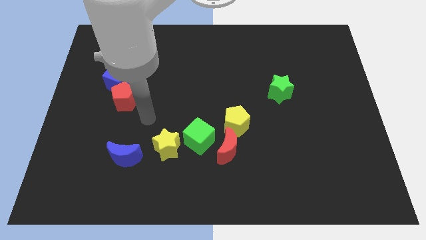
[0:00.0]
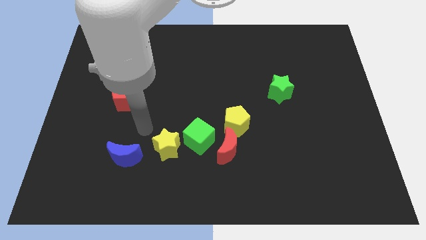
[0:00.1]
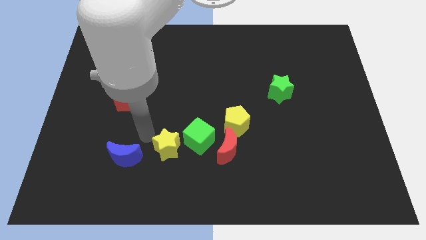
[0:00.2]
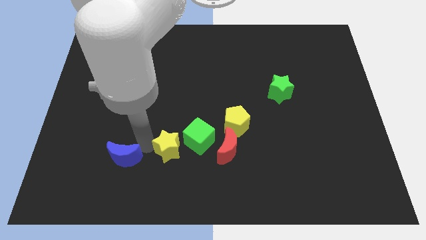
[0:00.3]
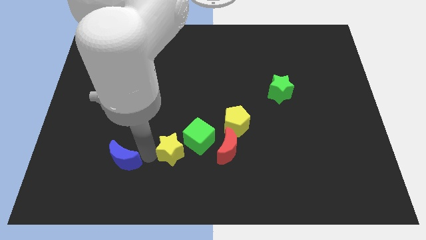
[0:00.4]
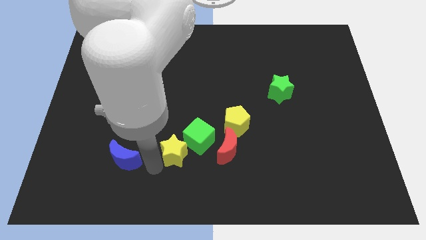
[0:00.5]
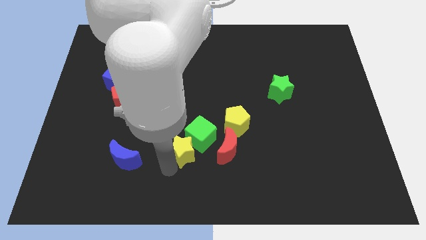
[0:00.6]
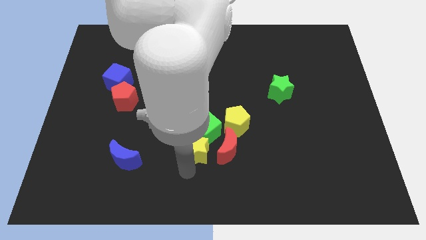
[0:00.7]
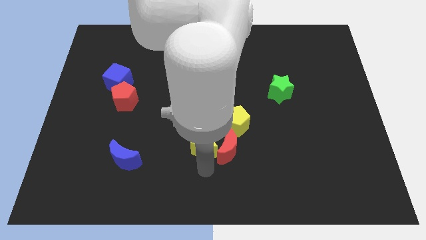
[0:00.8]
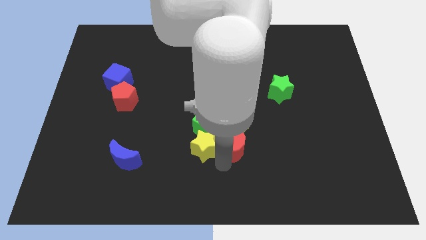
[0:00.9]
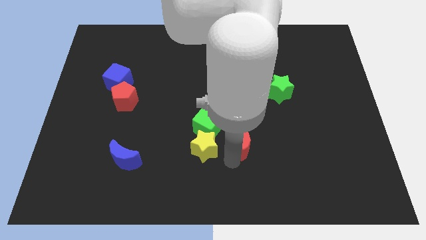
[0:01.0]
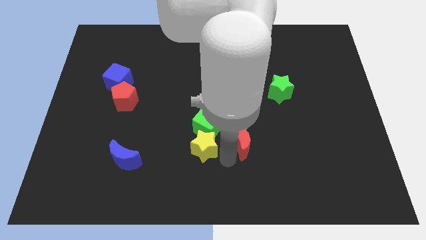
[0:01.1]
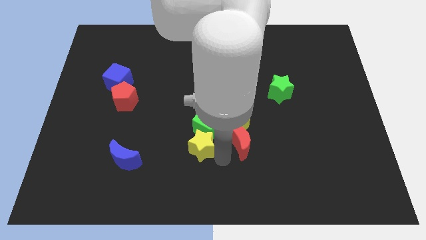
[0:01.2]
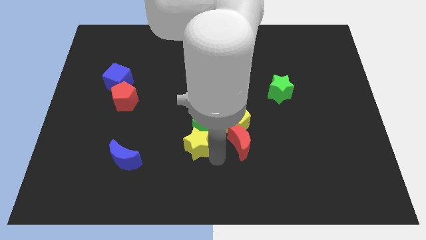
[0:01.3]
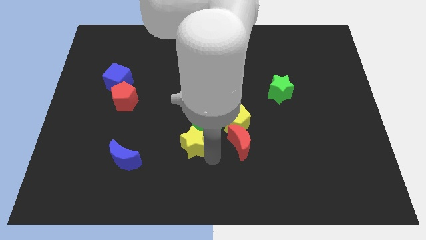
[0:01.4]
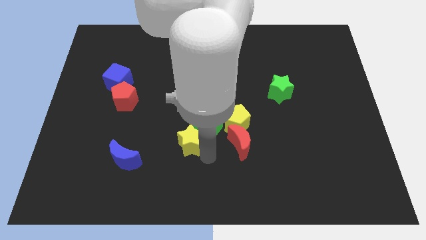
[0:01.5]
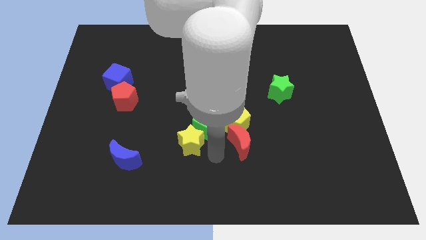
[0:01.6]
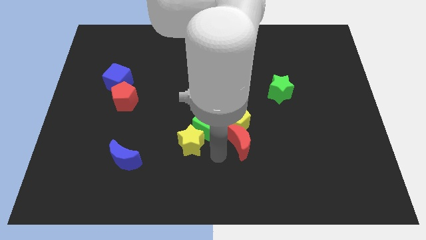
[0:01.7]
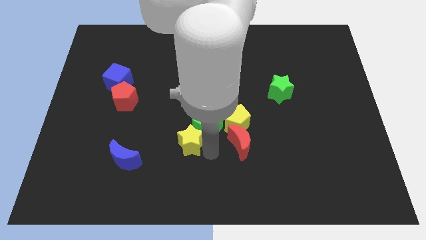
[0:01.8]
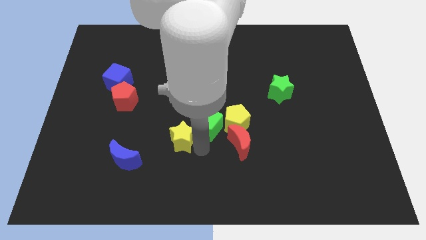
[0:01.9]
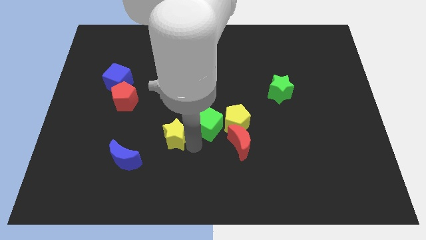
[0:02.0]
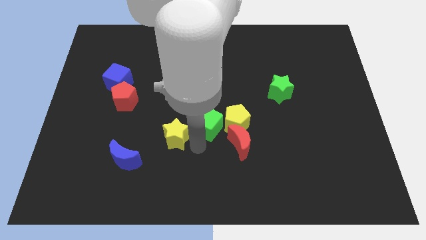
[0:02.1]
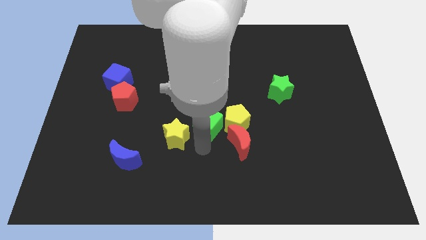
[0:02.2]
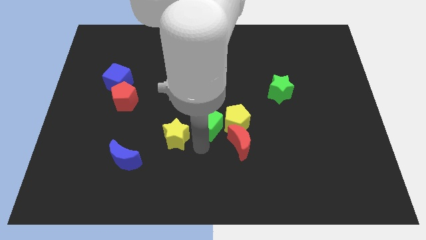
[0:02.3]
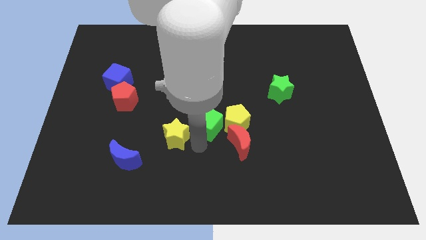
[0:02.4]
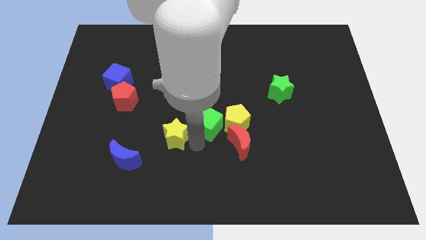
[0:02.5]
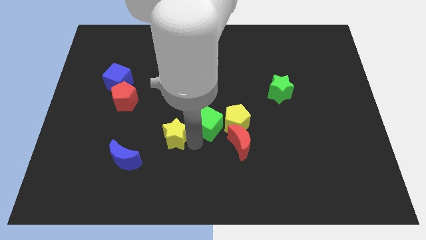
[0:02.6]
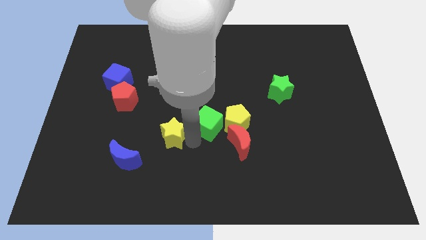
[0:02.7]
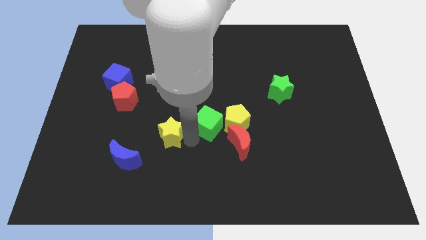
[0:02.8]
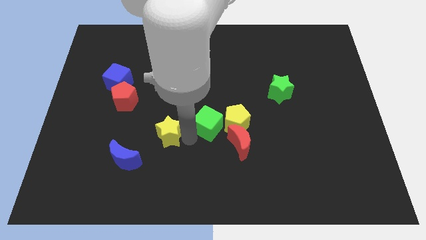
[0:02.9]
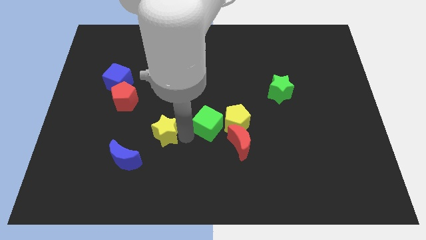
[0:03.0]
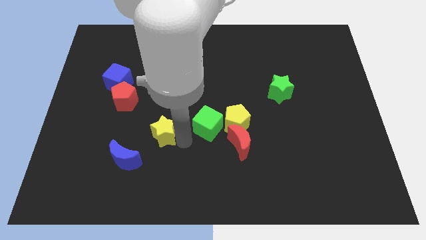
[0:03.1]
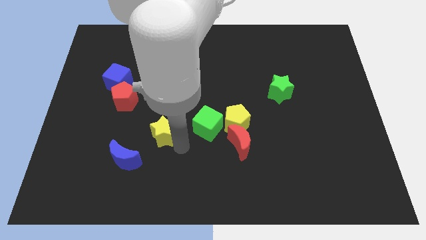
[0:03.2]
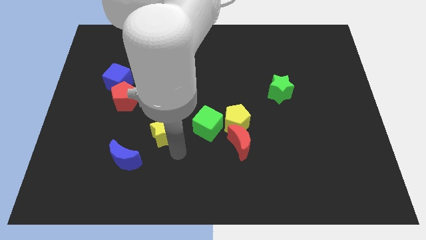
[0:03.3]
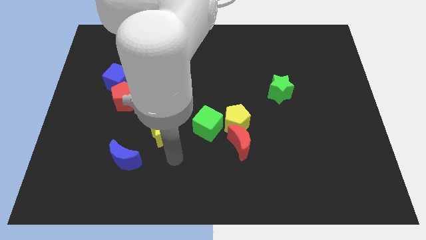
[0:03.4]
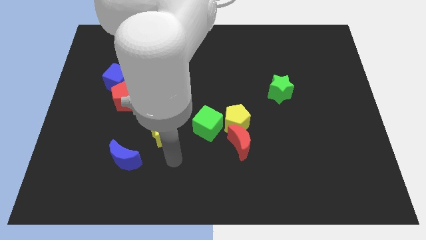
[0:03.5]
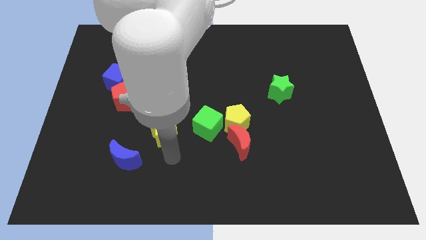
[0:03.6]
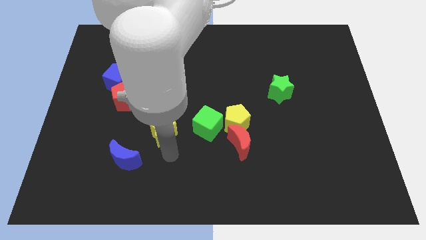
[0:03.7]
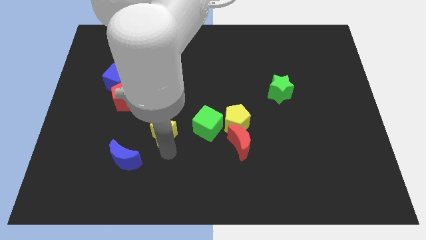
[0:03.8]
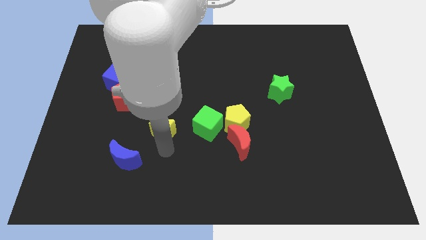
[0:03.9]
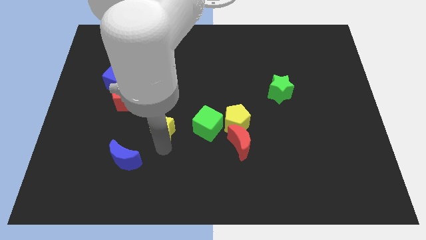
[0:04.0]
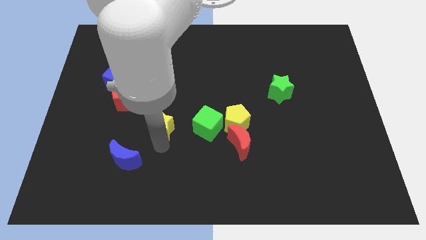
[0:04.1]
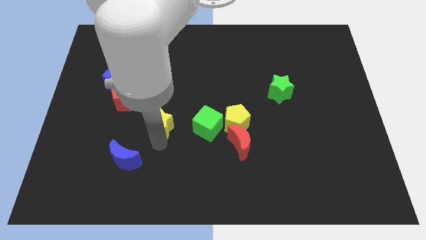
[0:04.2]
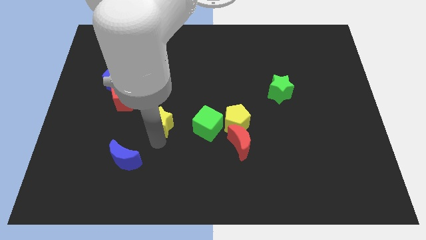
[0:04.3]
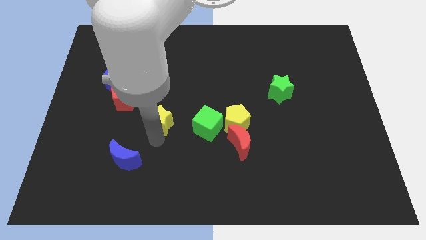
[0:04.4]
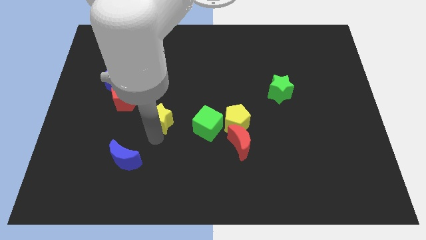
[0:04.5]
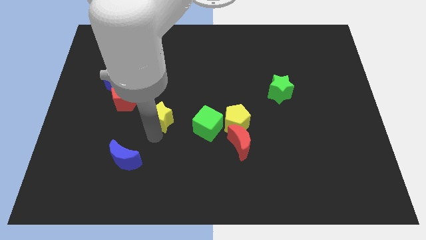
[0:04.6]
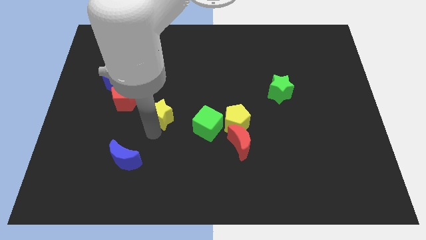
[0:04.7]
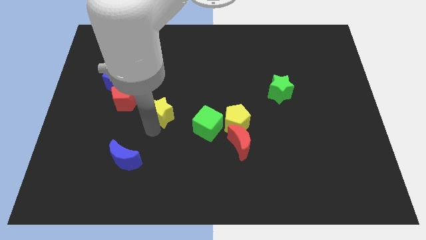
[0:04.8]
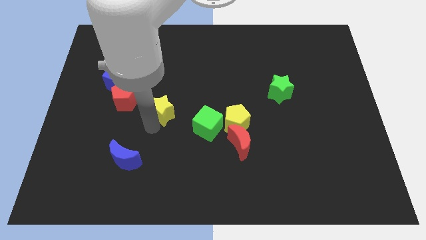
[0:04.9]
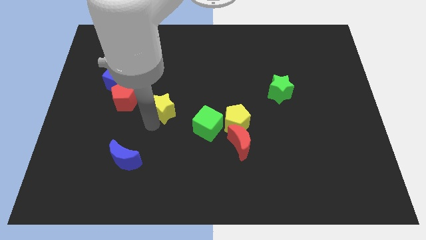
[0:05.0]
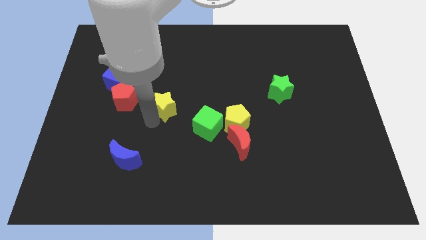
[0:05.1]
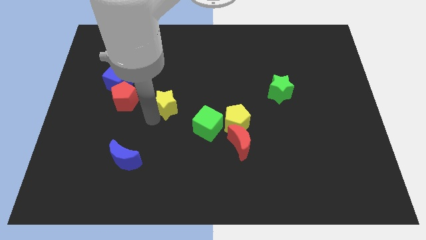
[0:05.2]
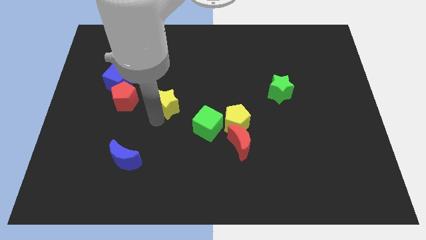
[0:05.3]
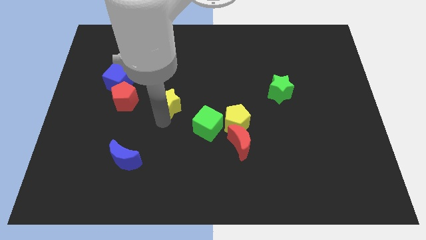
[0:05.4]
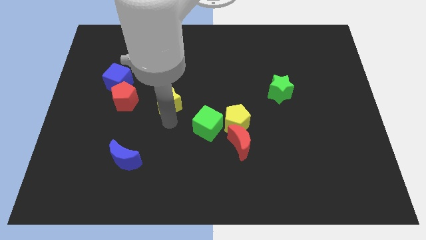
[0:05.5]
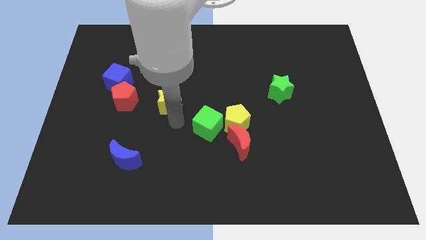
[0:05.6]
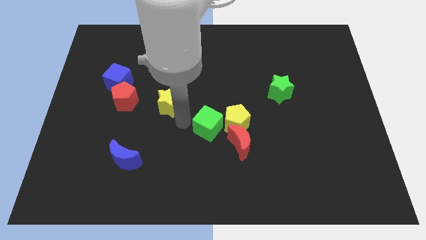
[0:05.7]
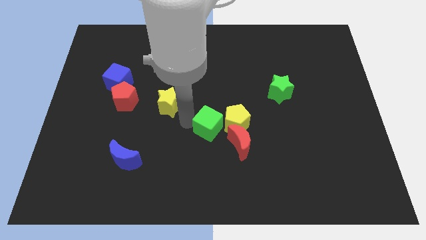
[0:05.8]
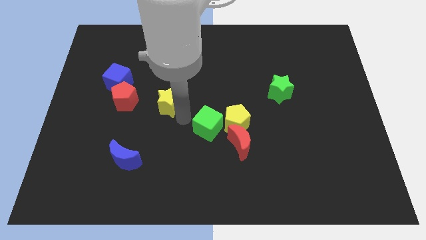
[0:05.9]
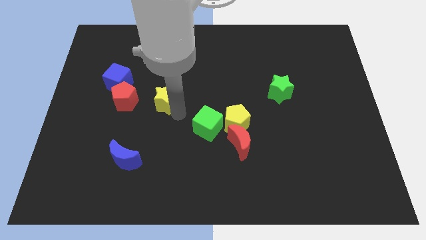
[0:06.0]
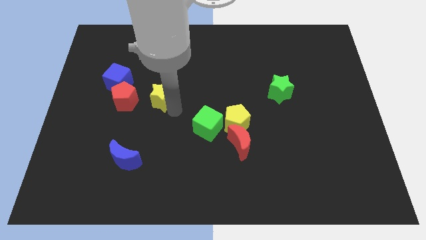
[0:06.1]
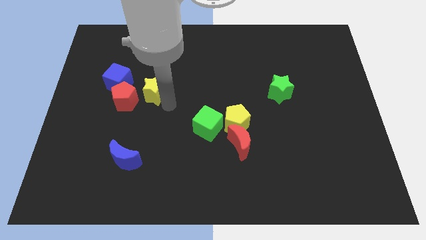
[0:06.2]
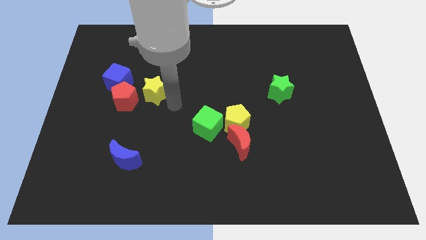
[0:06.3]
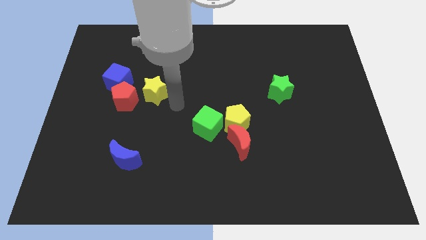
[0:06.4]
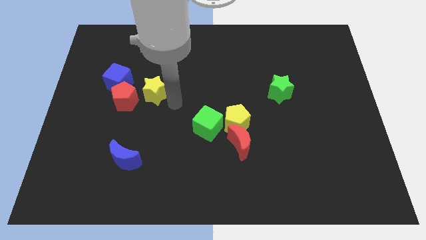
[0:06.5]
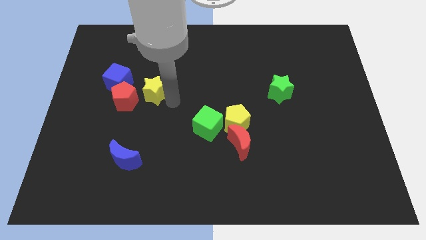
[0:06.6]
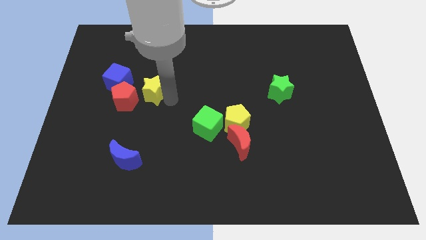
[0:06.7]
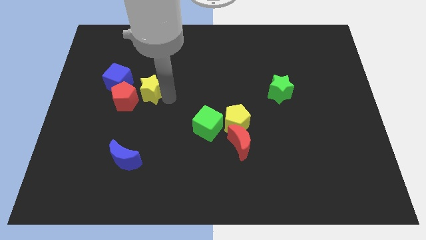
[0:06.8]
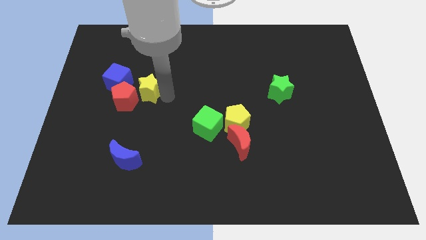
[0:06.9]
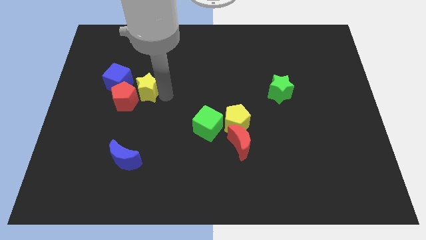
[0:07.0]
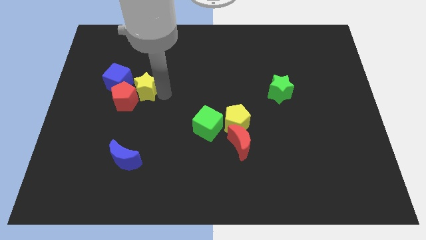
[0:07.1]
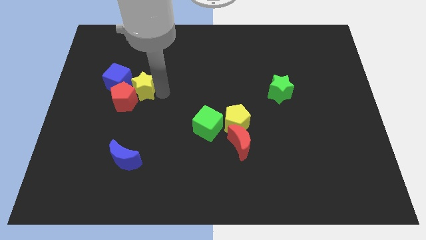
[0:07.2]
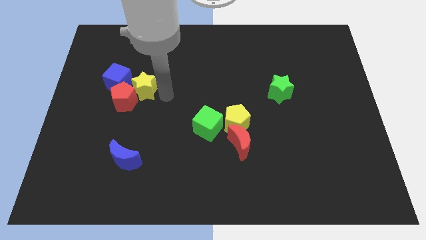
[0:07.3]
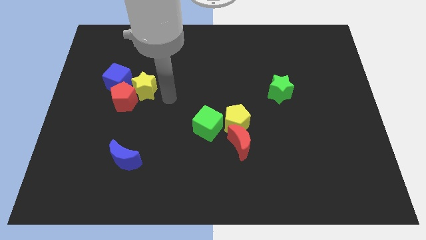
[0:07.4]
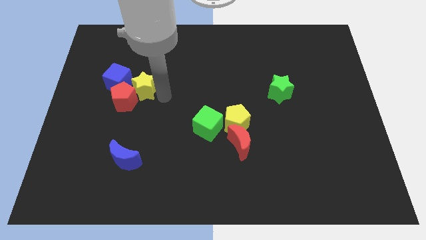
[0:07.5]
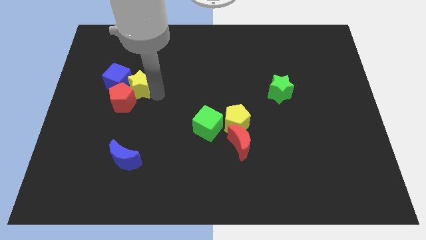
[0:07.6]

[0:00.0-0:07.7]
put the yellow star next to the blue cube
